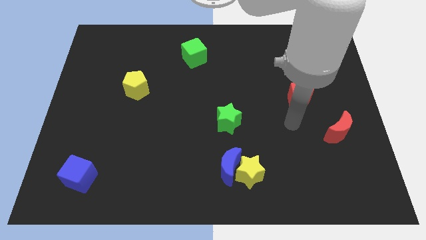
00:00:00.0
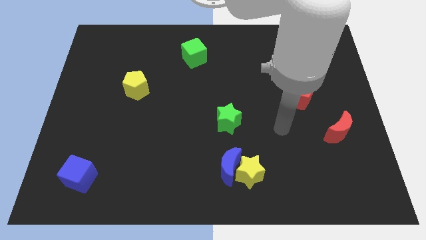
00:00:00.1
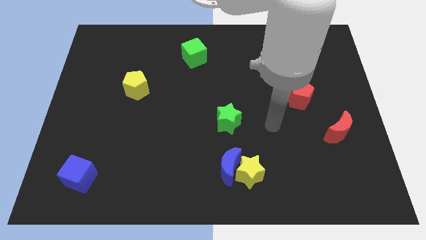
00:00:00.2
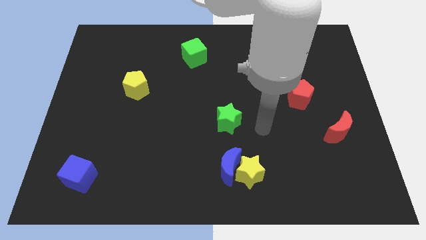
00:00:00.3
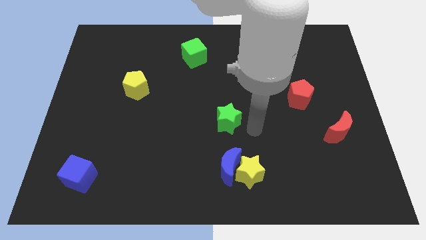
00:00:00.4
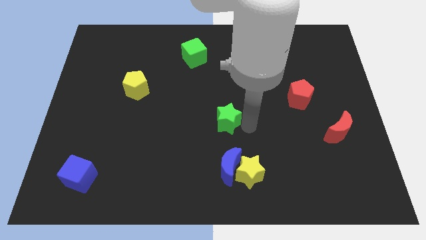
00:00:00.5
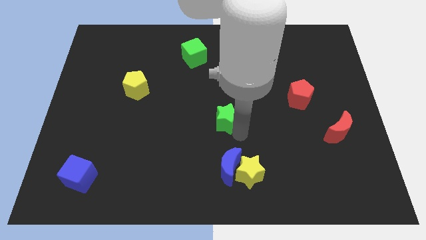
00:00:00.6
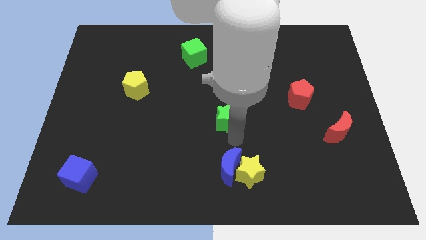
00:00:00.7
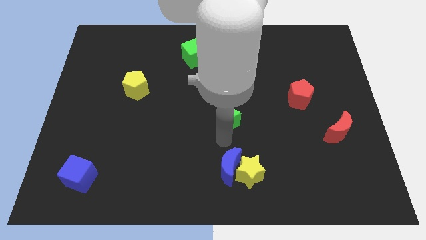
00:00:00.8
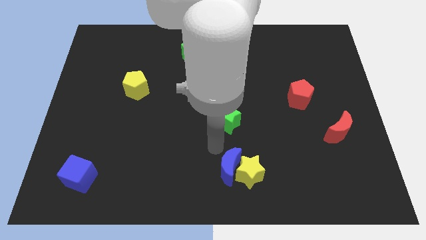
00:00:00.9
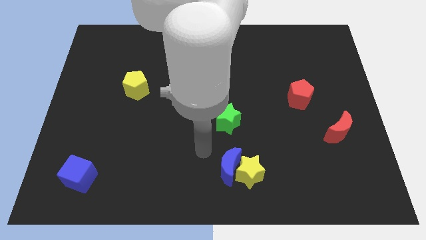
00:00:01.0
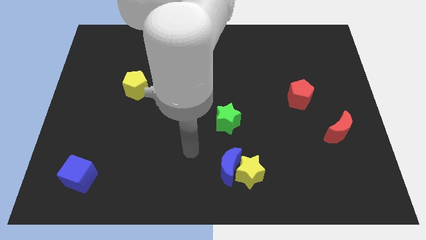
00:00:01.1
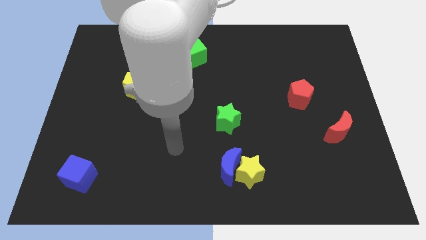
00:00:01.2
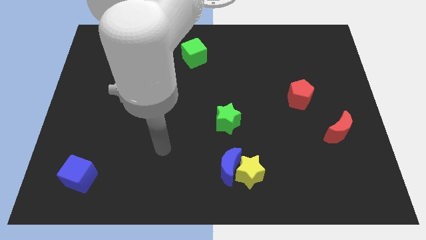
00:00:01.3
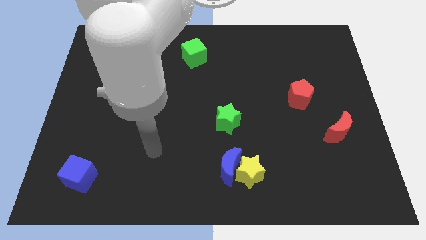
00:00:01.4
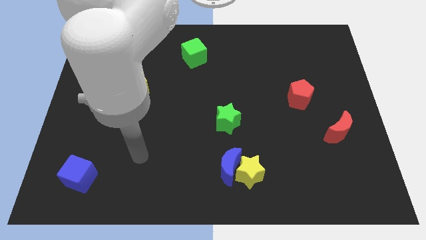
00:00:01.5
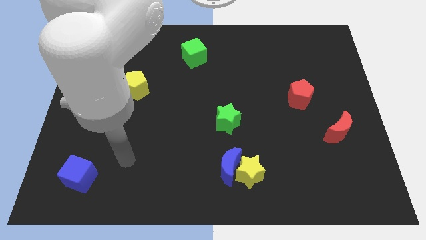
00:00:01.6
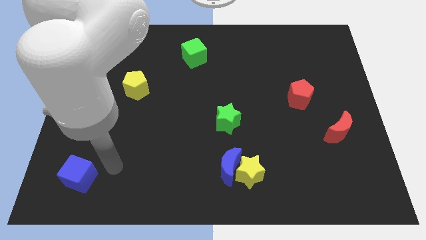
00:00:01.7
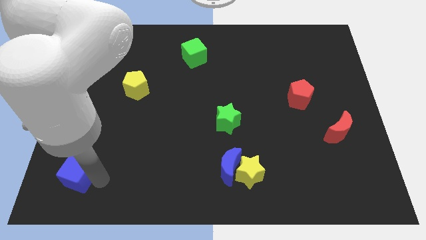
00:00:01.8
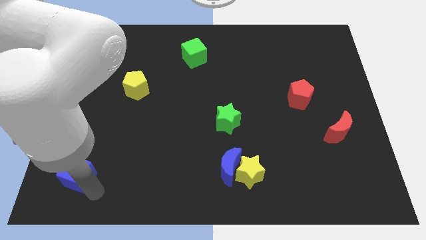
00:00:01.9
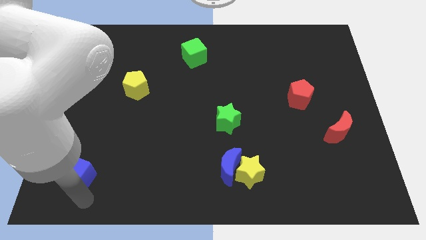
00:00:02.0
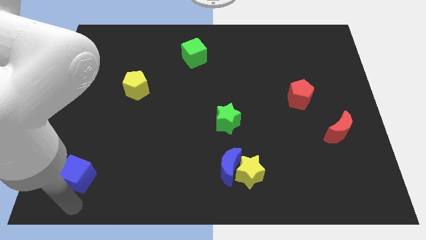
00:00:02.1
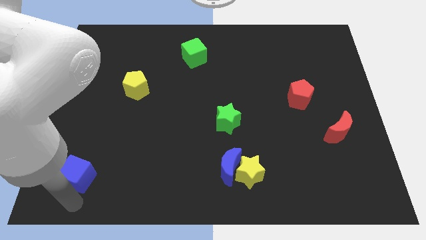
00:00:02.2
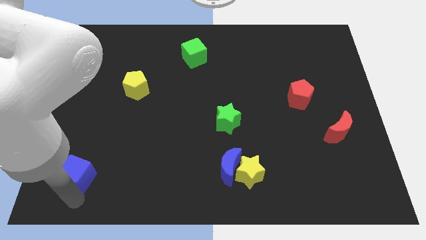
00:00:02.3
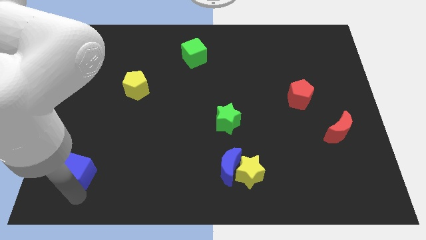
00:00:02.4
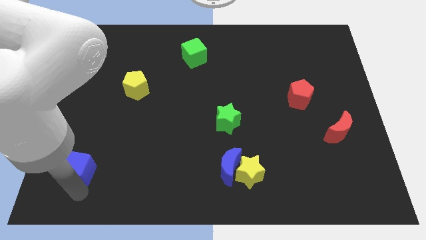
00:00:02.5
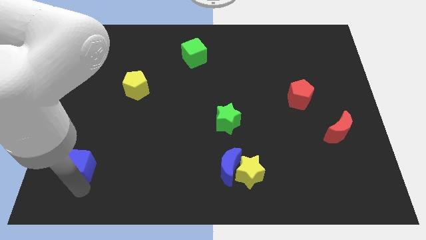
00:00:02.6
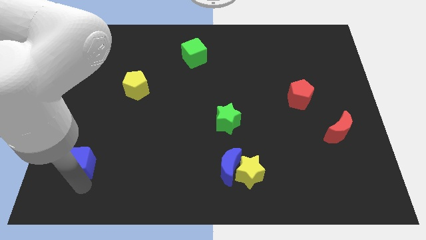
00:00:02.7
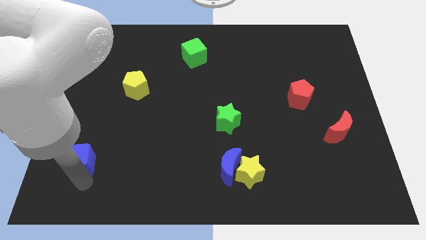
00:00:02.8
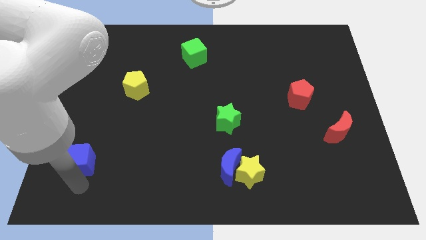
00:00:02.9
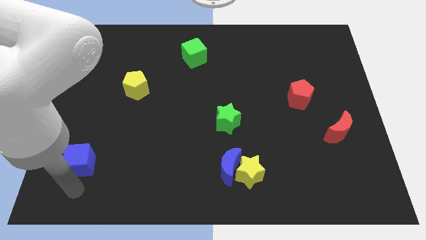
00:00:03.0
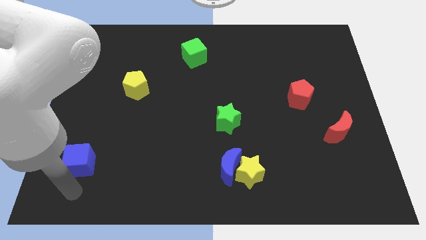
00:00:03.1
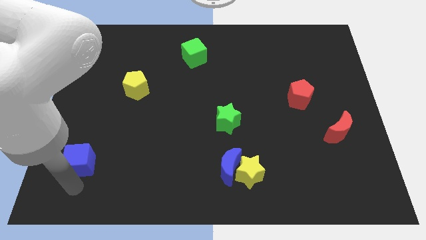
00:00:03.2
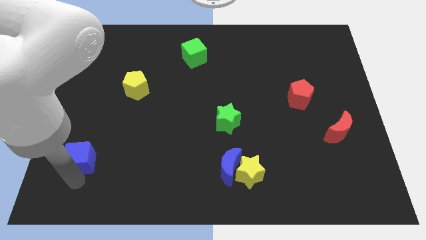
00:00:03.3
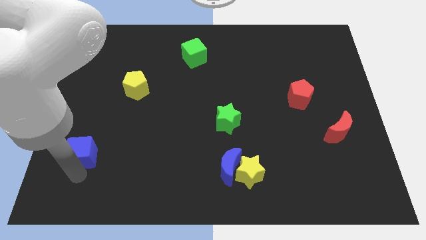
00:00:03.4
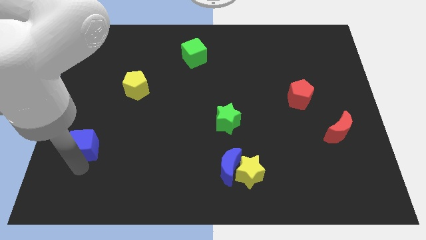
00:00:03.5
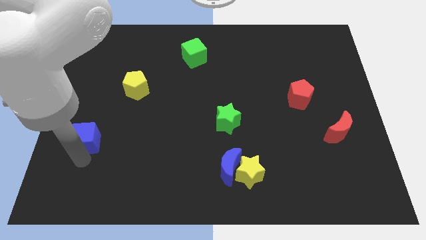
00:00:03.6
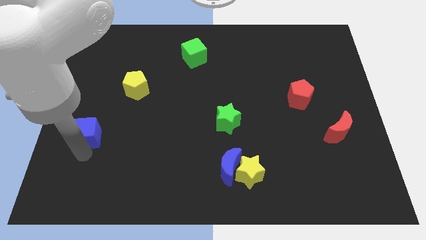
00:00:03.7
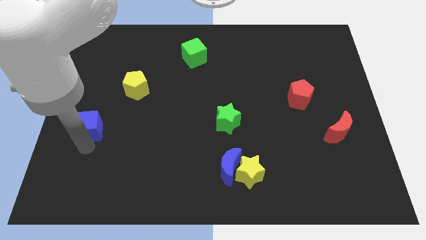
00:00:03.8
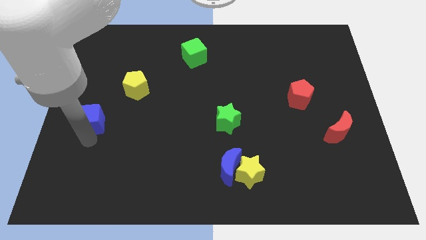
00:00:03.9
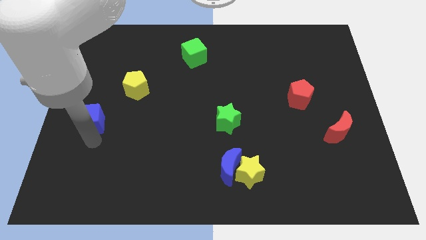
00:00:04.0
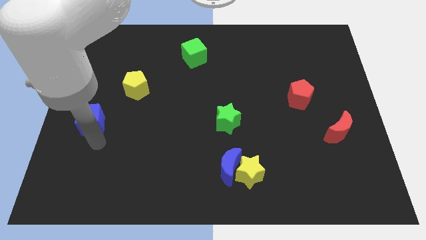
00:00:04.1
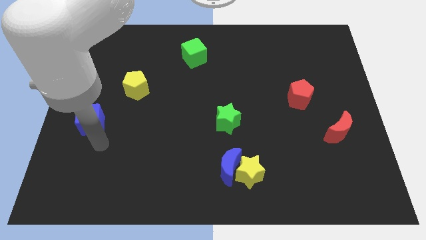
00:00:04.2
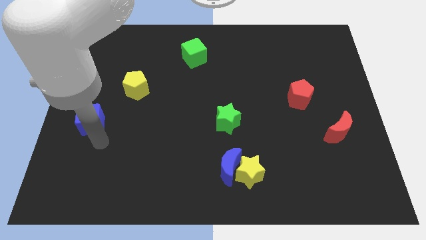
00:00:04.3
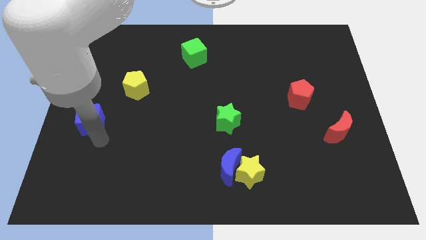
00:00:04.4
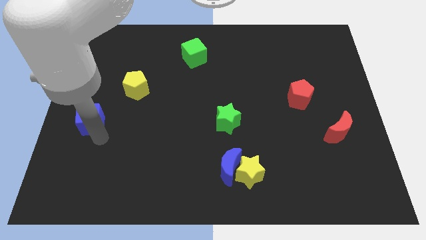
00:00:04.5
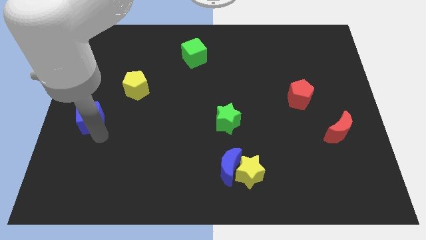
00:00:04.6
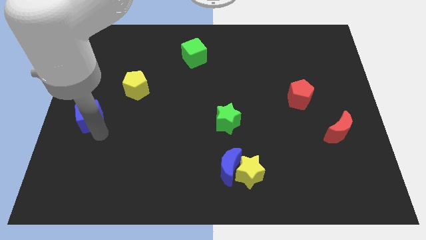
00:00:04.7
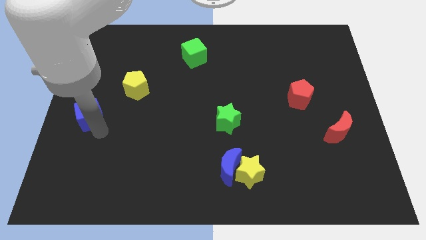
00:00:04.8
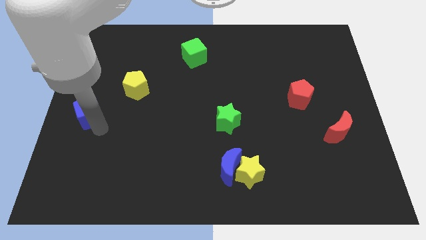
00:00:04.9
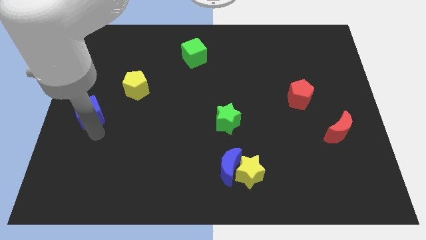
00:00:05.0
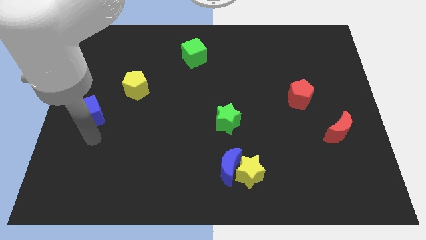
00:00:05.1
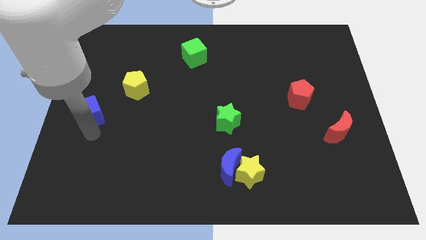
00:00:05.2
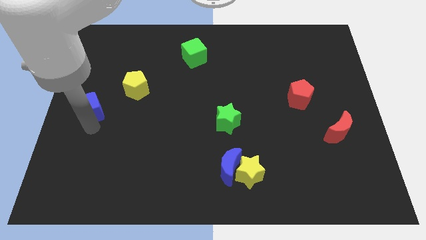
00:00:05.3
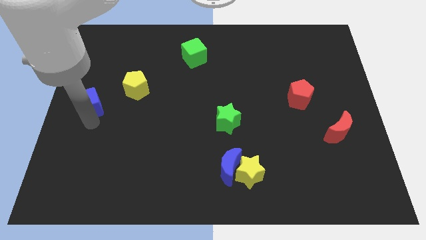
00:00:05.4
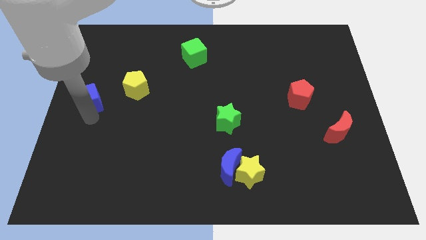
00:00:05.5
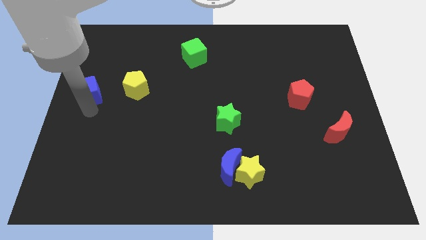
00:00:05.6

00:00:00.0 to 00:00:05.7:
move the blue cube up

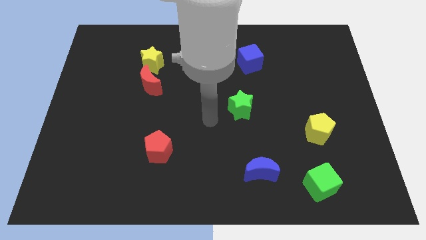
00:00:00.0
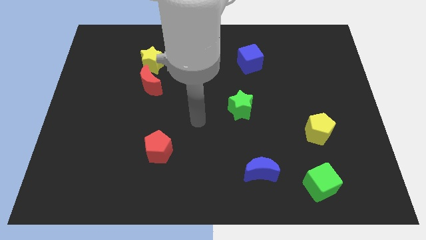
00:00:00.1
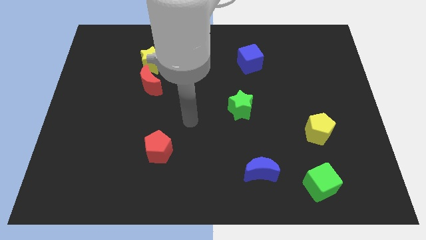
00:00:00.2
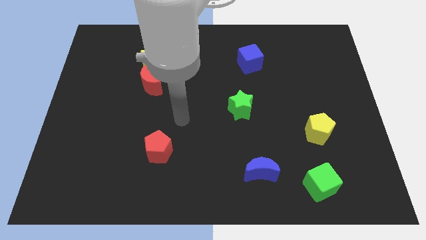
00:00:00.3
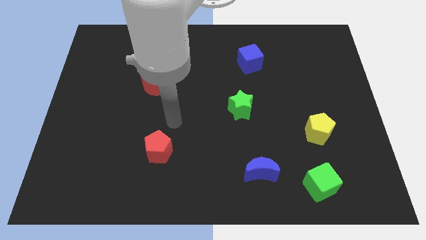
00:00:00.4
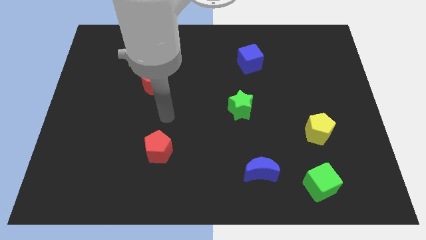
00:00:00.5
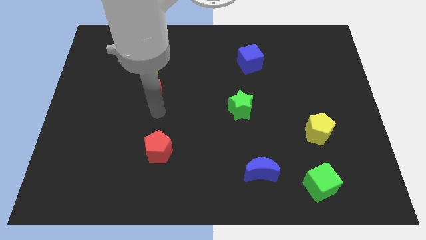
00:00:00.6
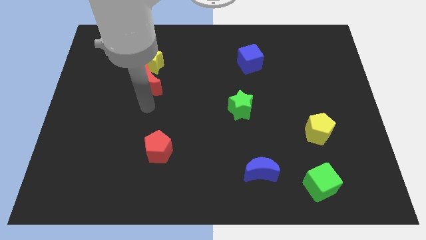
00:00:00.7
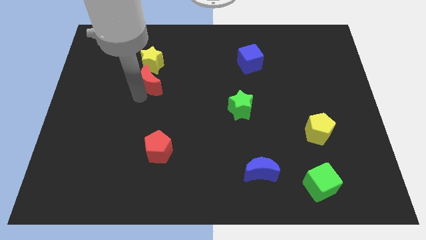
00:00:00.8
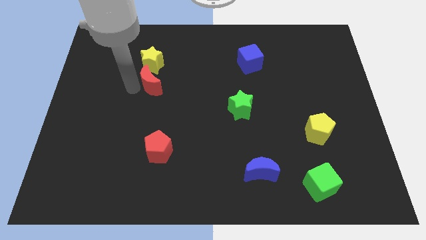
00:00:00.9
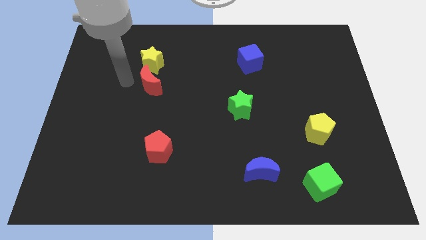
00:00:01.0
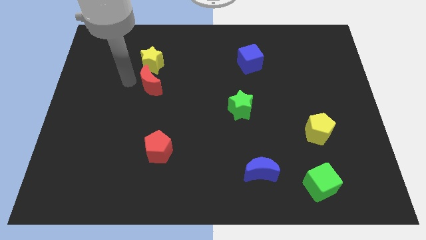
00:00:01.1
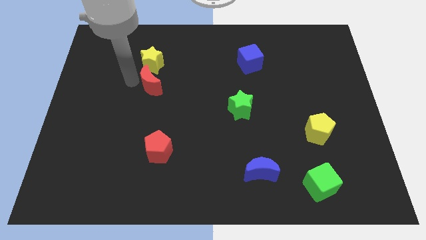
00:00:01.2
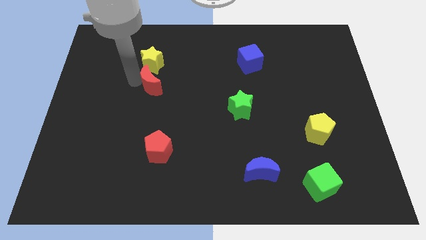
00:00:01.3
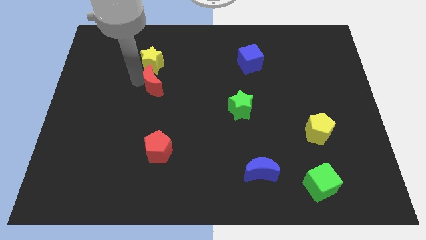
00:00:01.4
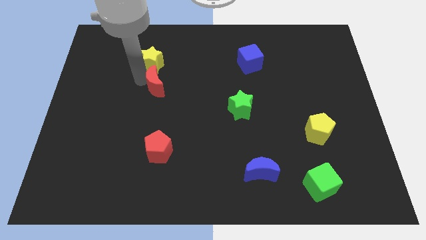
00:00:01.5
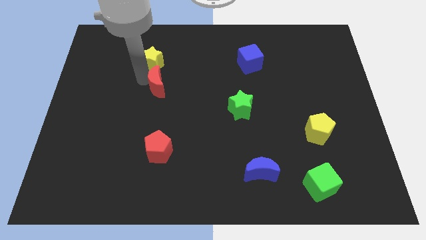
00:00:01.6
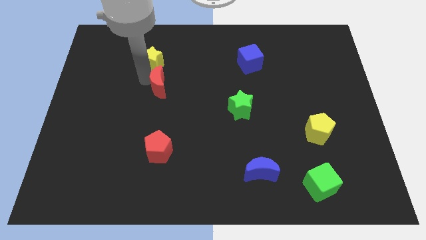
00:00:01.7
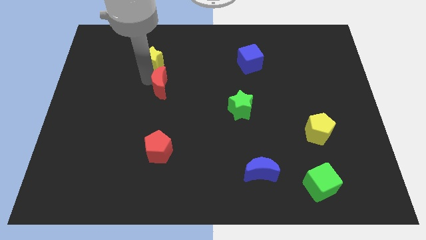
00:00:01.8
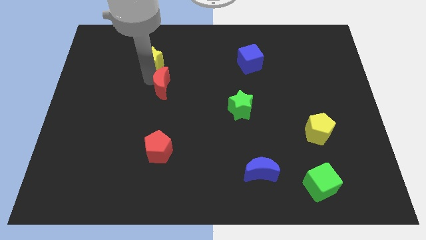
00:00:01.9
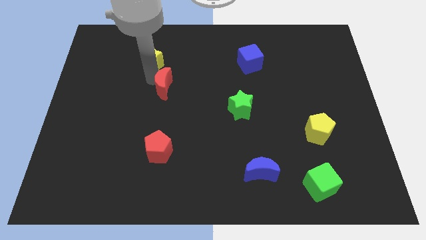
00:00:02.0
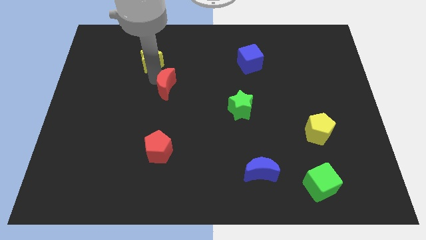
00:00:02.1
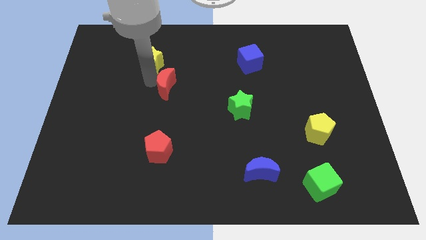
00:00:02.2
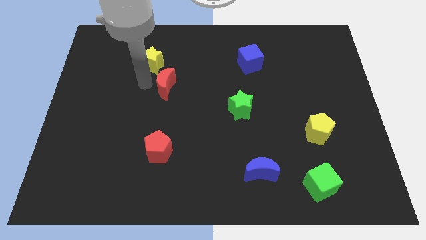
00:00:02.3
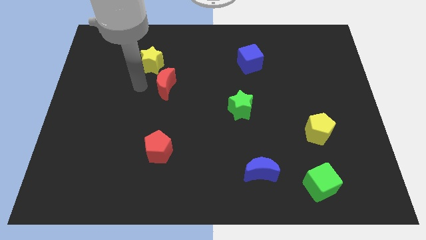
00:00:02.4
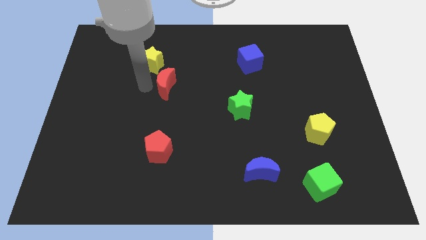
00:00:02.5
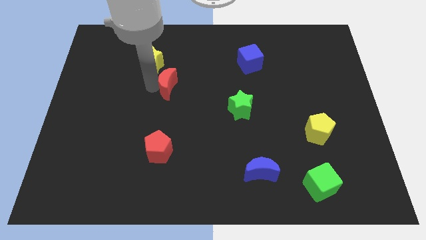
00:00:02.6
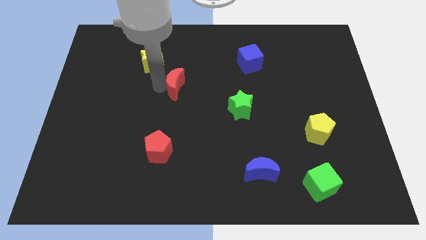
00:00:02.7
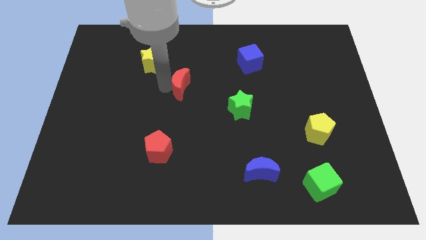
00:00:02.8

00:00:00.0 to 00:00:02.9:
slightly slide the red moon to the right
